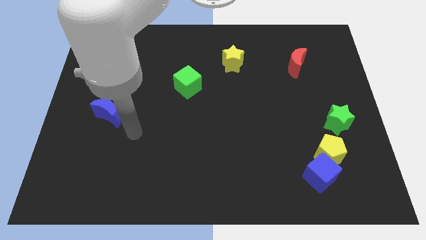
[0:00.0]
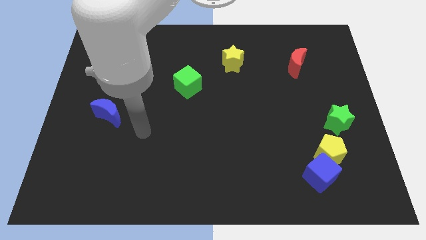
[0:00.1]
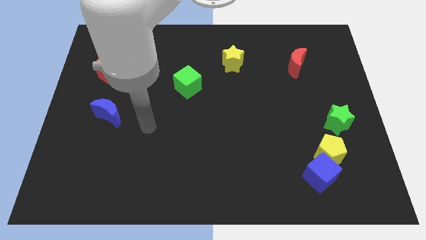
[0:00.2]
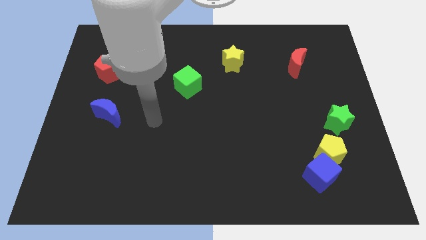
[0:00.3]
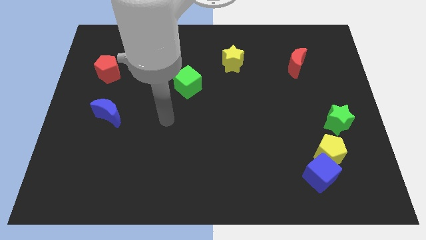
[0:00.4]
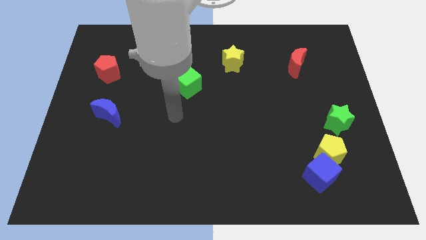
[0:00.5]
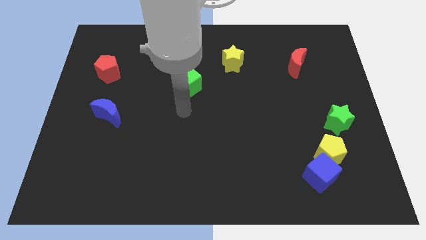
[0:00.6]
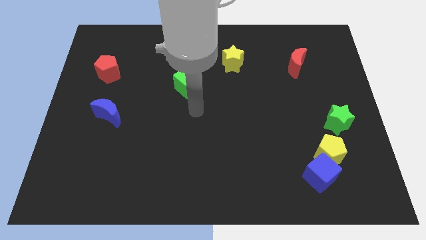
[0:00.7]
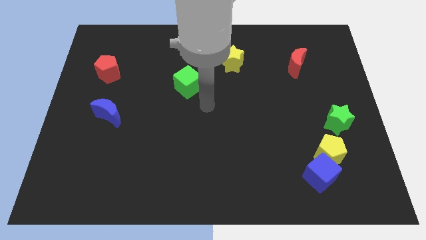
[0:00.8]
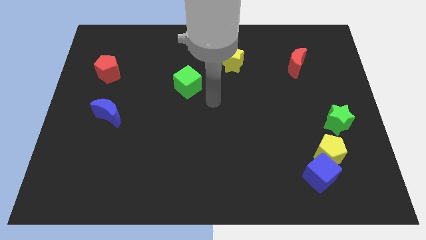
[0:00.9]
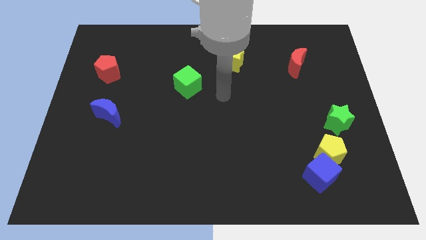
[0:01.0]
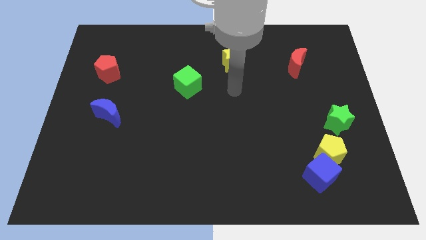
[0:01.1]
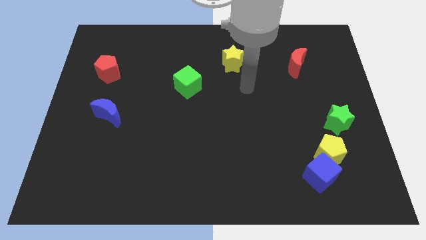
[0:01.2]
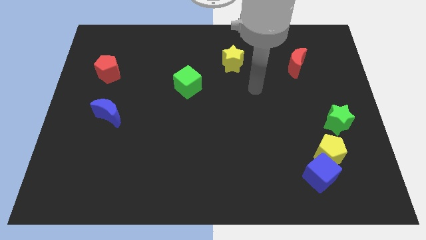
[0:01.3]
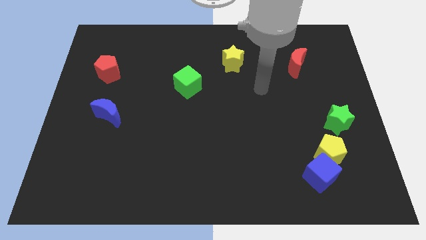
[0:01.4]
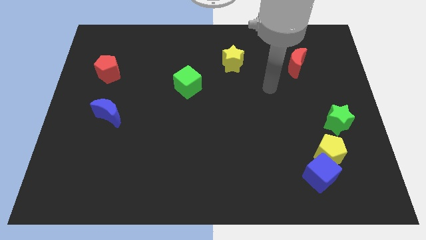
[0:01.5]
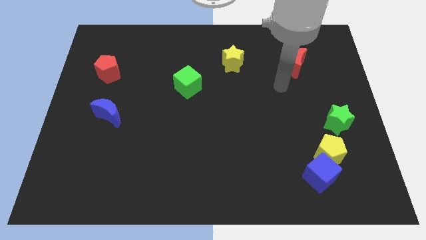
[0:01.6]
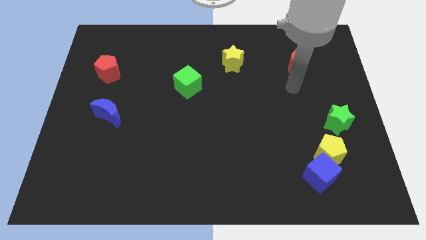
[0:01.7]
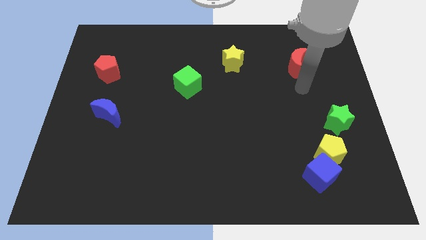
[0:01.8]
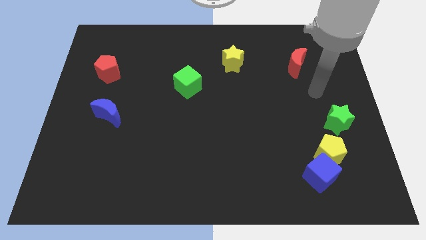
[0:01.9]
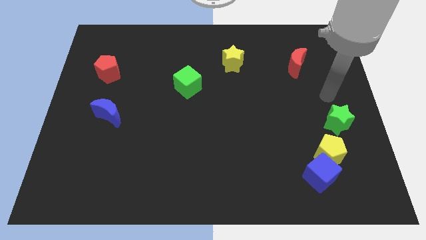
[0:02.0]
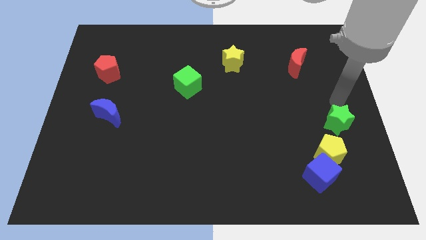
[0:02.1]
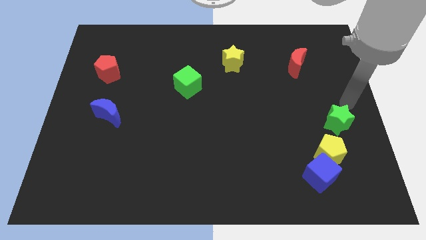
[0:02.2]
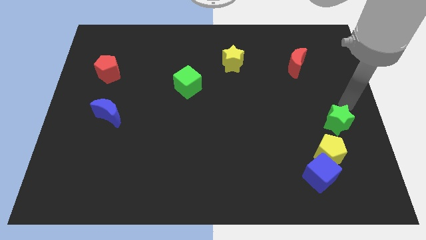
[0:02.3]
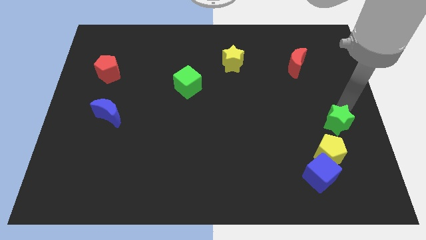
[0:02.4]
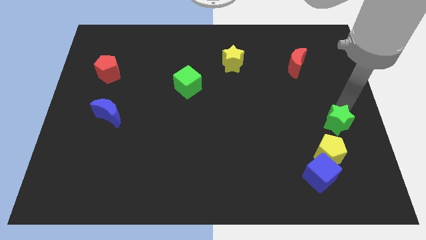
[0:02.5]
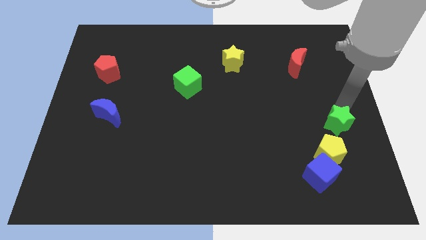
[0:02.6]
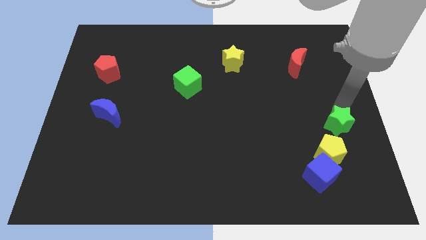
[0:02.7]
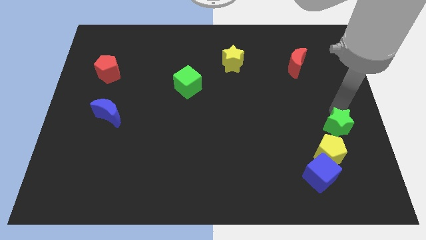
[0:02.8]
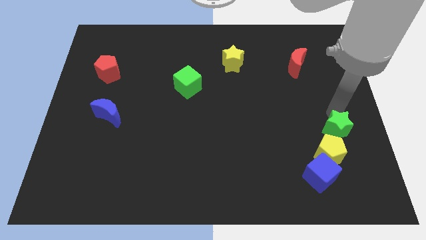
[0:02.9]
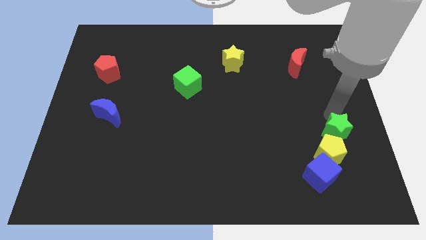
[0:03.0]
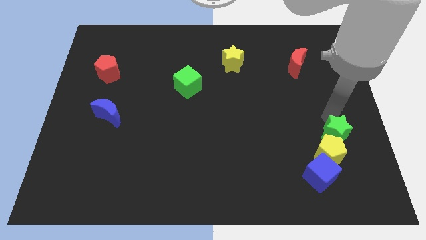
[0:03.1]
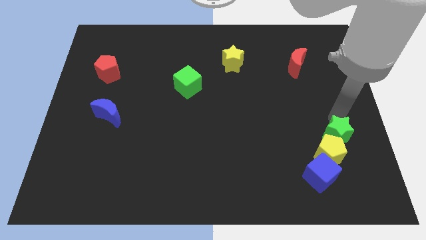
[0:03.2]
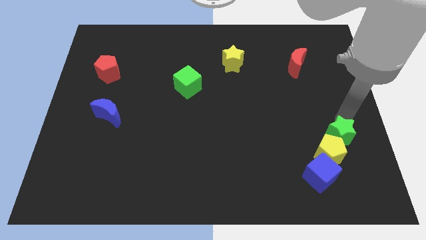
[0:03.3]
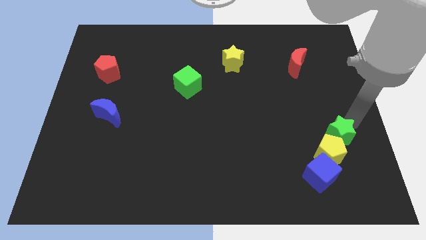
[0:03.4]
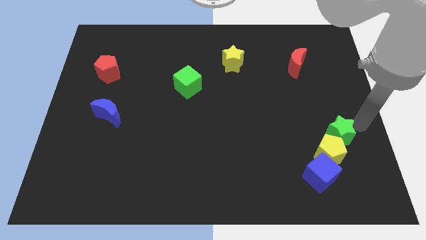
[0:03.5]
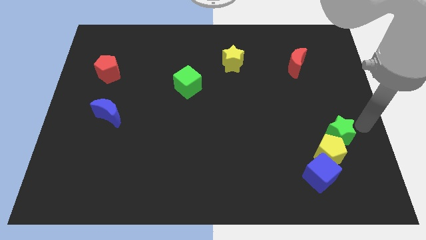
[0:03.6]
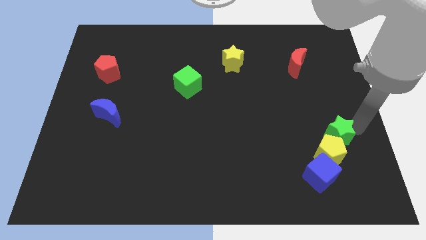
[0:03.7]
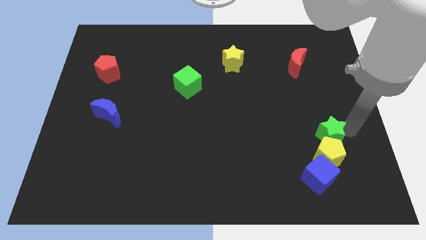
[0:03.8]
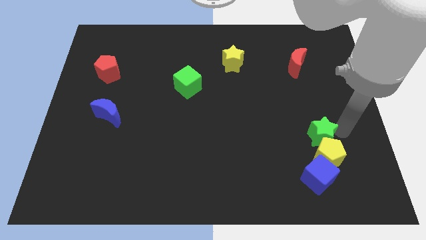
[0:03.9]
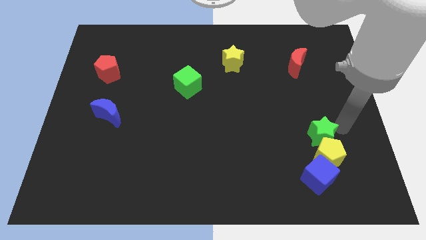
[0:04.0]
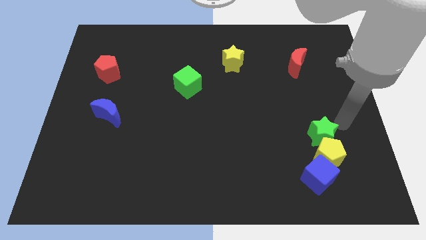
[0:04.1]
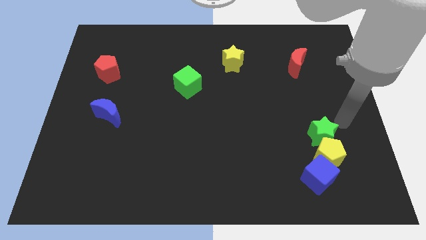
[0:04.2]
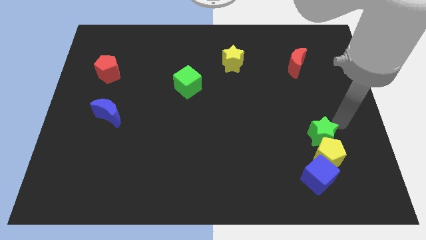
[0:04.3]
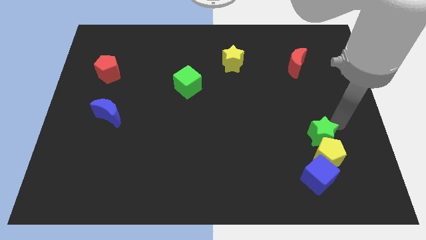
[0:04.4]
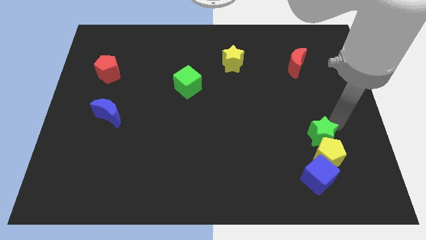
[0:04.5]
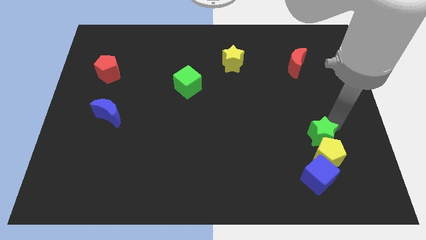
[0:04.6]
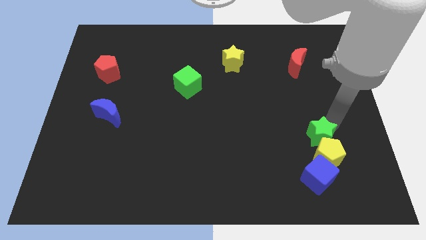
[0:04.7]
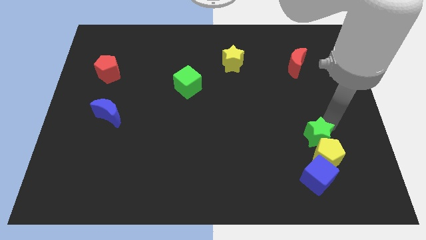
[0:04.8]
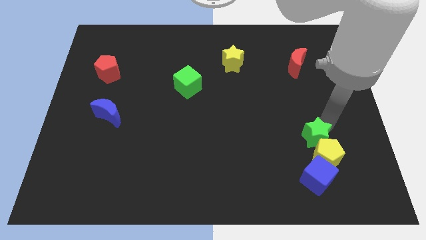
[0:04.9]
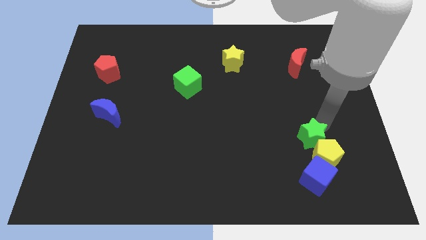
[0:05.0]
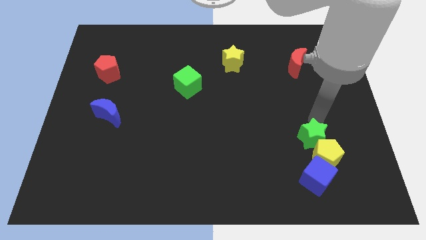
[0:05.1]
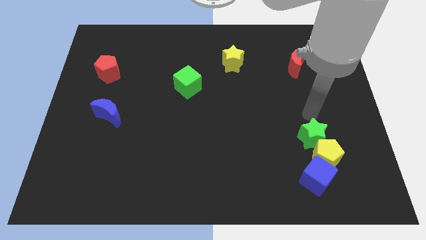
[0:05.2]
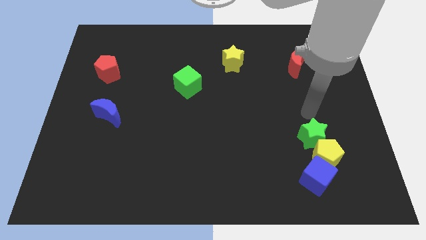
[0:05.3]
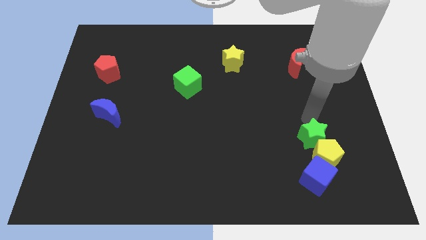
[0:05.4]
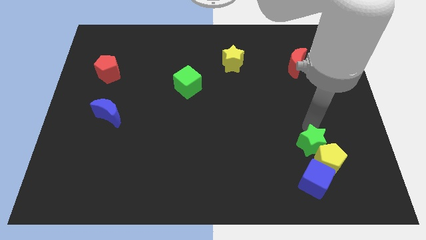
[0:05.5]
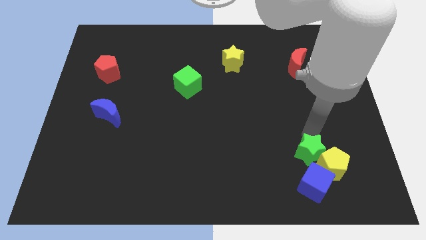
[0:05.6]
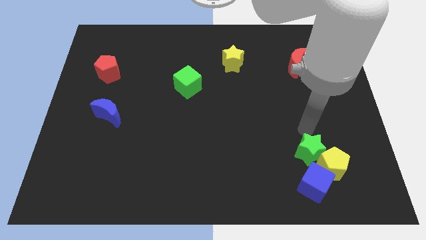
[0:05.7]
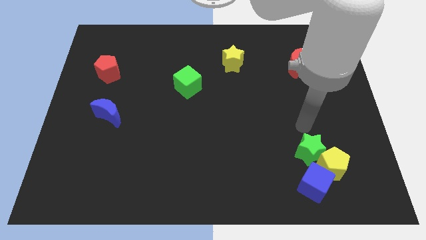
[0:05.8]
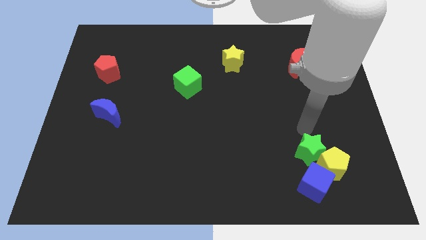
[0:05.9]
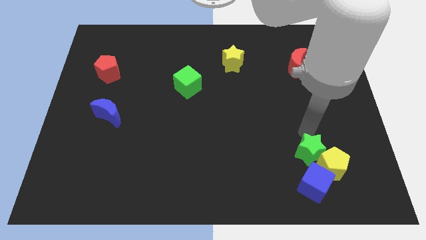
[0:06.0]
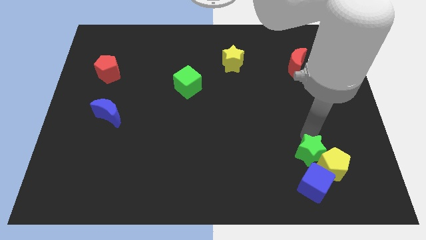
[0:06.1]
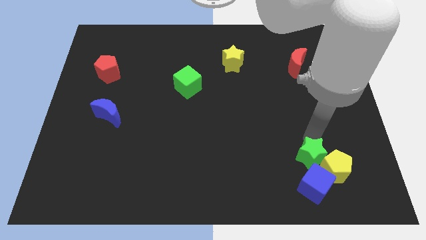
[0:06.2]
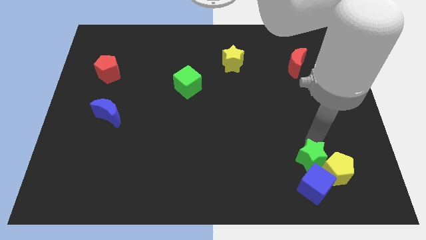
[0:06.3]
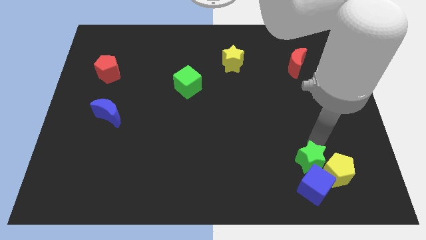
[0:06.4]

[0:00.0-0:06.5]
push the green star next to the blue cube

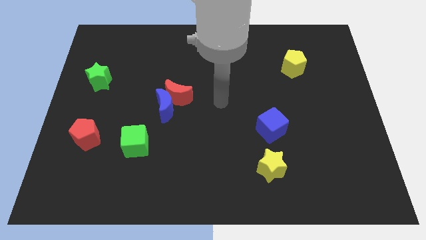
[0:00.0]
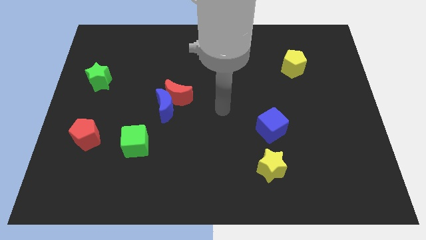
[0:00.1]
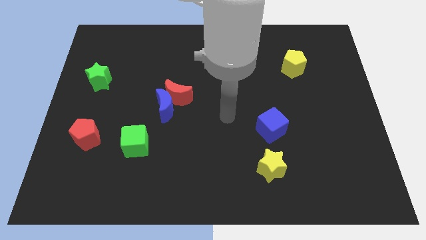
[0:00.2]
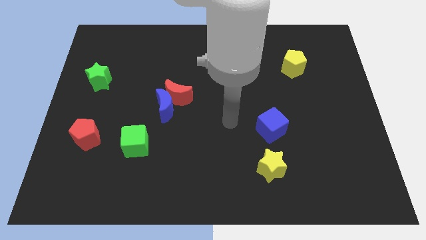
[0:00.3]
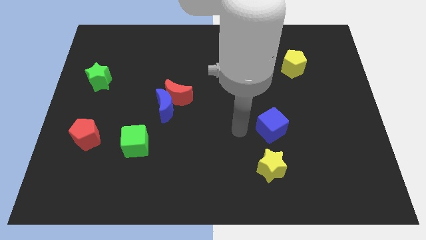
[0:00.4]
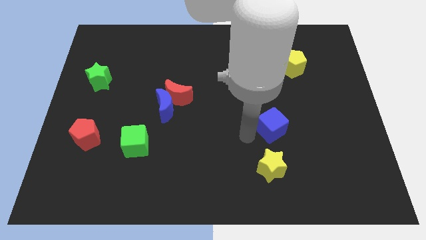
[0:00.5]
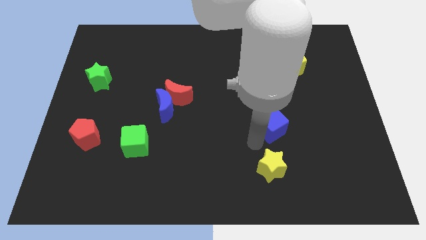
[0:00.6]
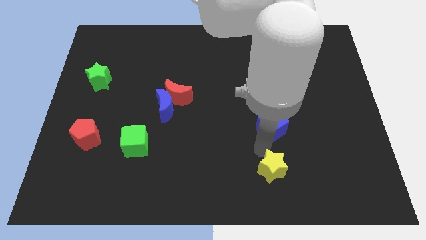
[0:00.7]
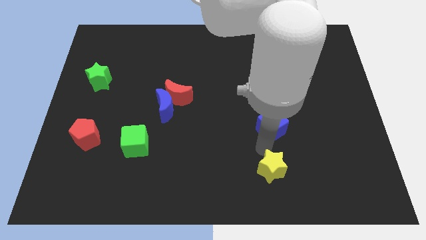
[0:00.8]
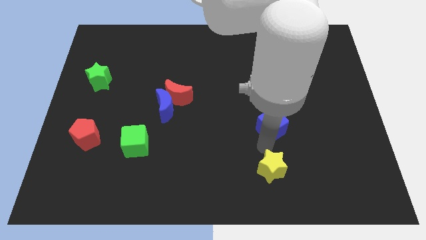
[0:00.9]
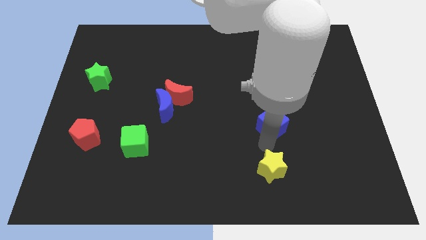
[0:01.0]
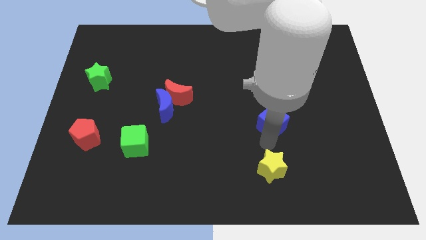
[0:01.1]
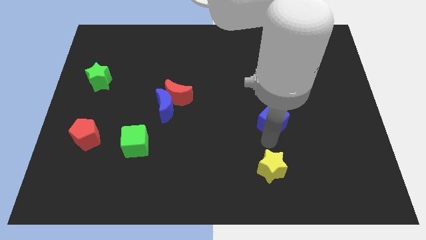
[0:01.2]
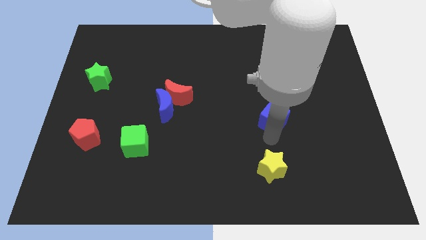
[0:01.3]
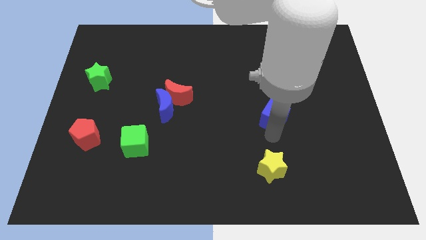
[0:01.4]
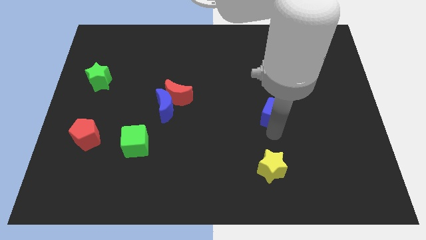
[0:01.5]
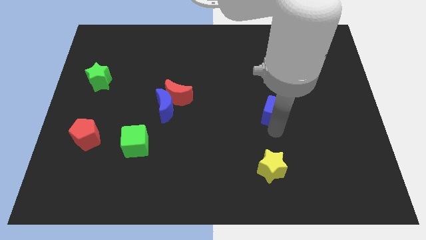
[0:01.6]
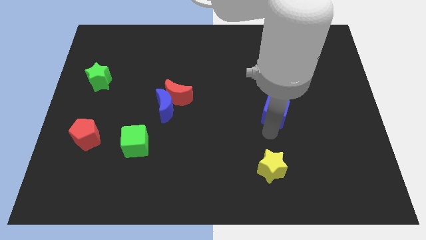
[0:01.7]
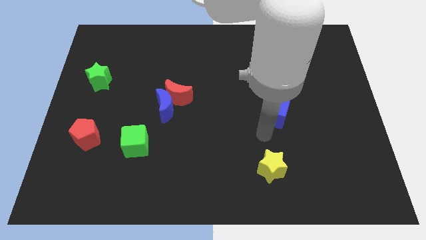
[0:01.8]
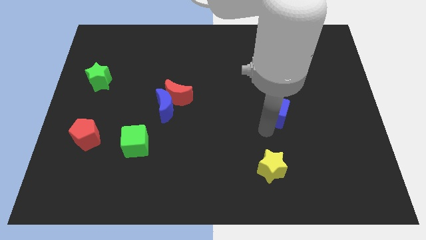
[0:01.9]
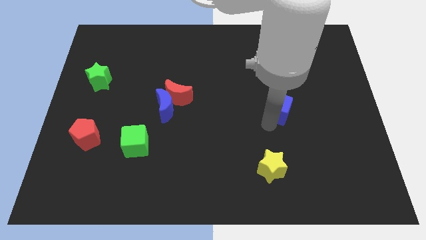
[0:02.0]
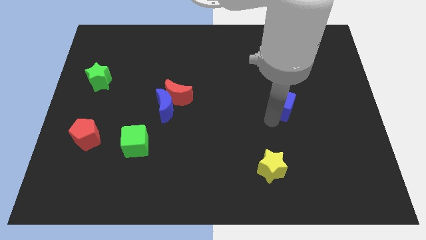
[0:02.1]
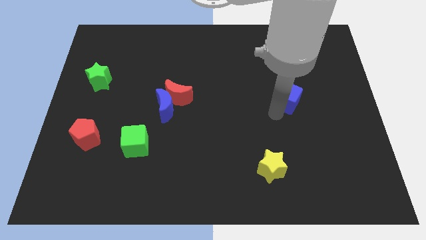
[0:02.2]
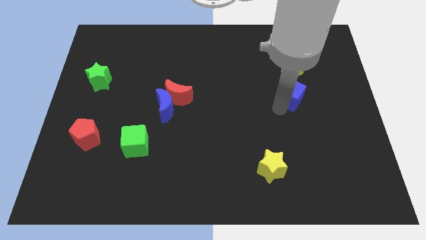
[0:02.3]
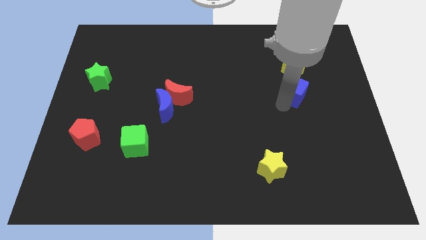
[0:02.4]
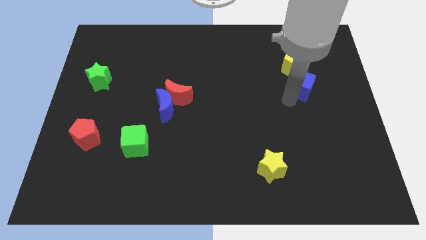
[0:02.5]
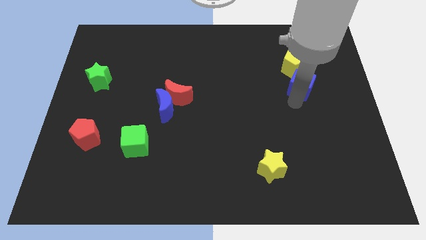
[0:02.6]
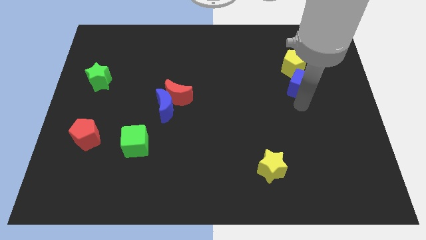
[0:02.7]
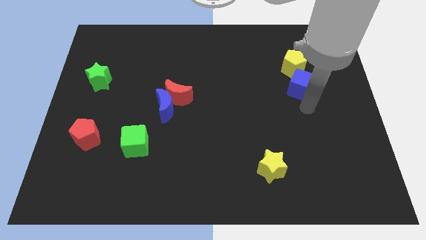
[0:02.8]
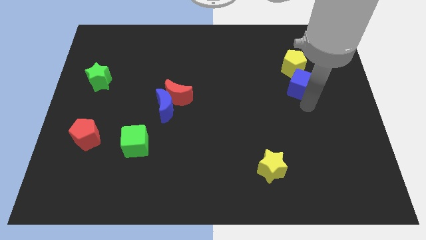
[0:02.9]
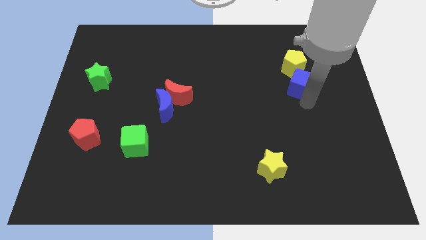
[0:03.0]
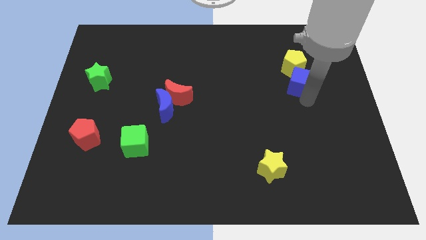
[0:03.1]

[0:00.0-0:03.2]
put the blue cube to the yellow pentagon
